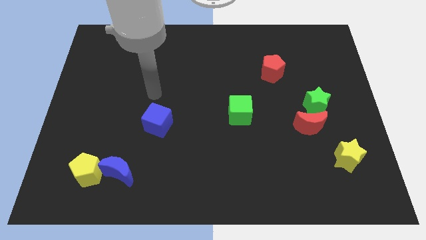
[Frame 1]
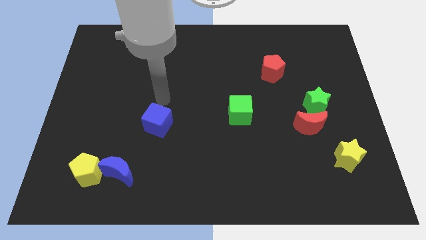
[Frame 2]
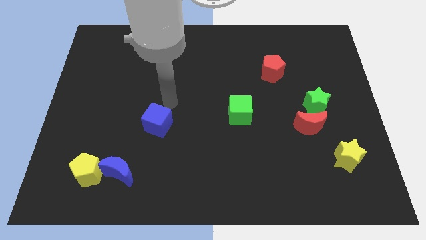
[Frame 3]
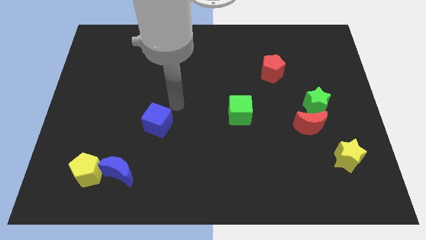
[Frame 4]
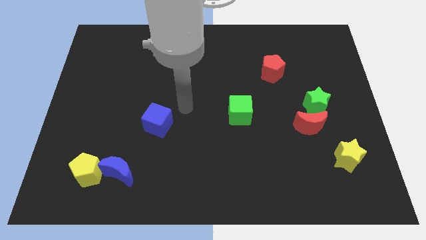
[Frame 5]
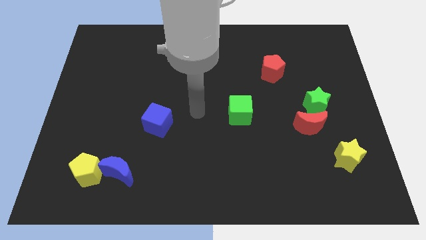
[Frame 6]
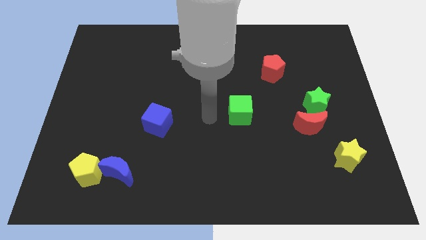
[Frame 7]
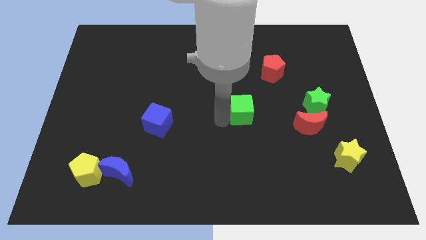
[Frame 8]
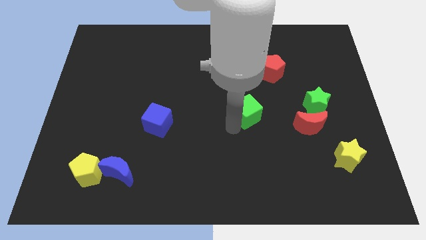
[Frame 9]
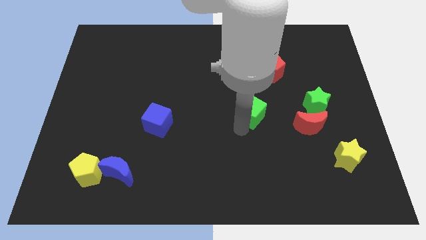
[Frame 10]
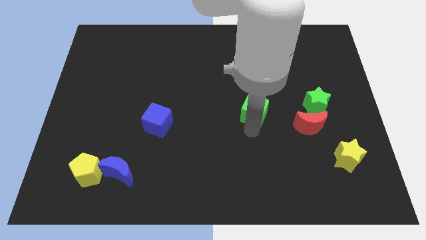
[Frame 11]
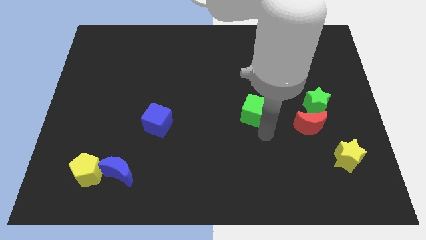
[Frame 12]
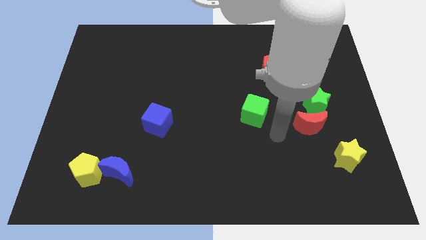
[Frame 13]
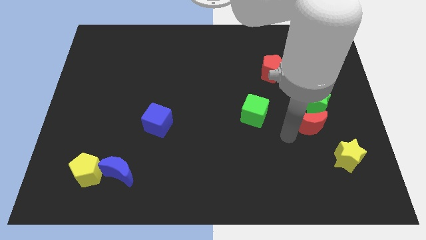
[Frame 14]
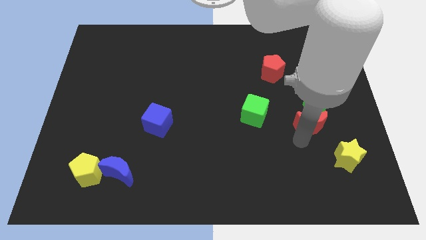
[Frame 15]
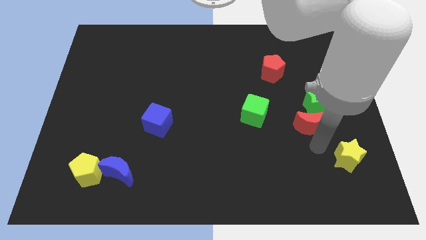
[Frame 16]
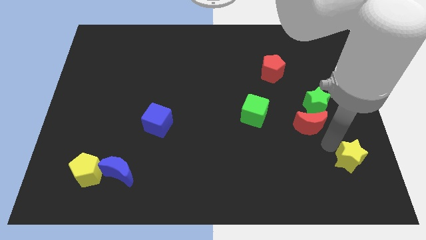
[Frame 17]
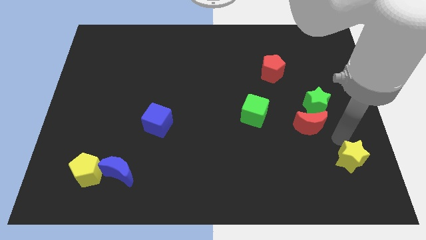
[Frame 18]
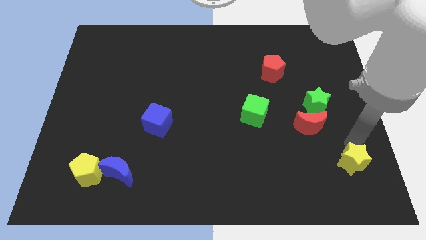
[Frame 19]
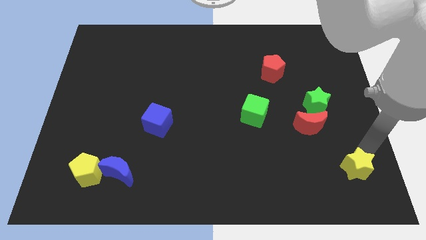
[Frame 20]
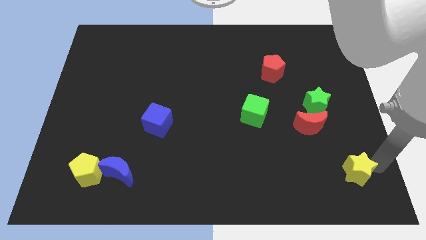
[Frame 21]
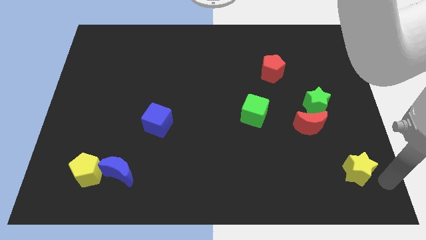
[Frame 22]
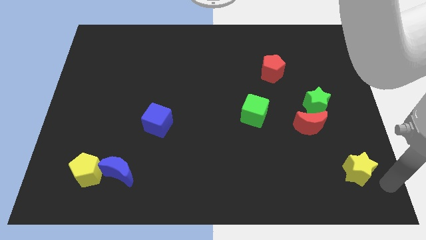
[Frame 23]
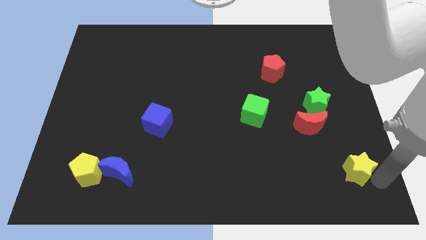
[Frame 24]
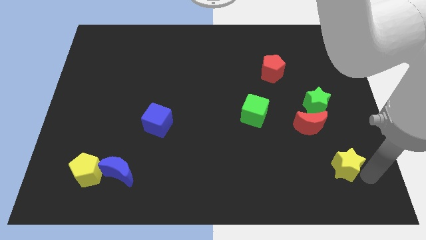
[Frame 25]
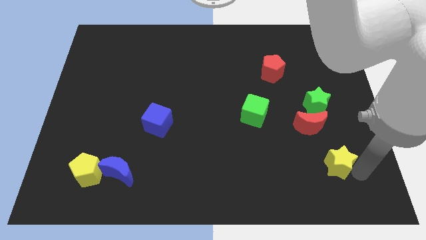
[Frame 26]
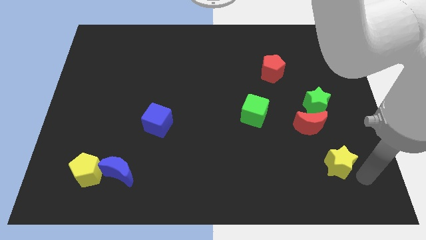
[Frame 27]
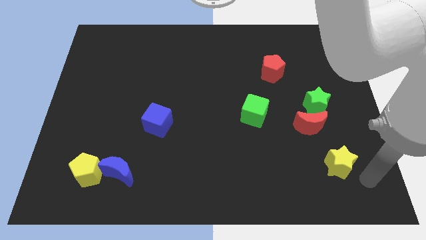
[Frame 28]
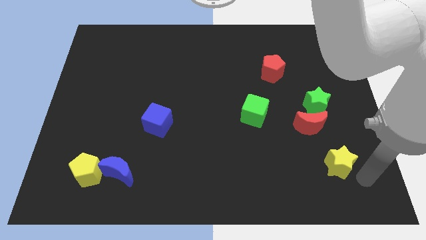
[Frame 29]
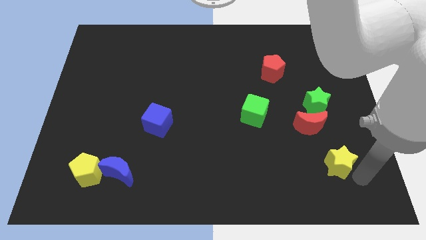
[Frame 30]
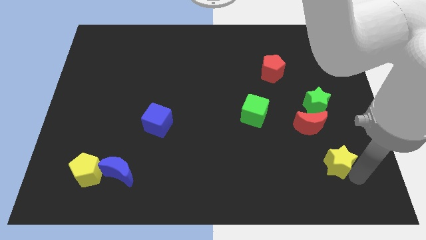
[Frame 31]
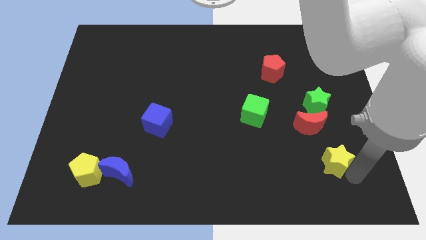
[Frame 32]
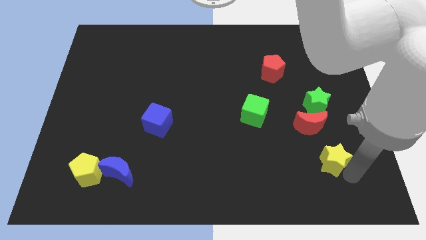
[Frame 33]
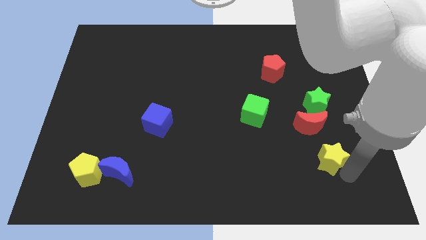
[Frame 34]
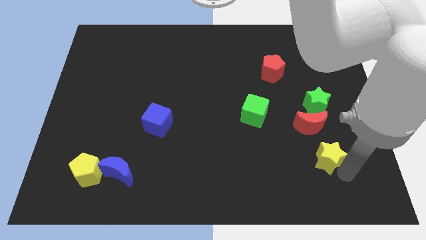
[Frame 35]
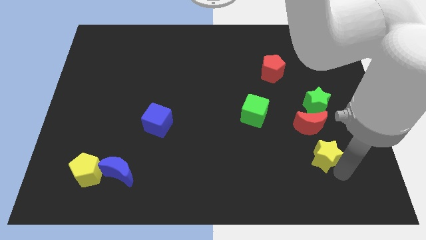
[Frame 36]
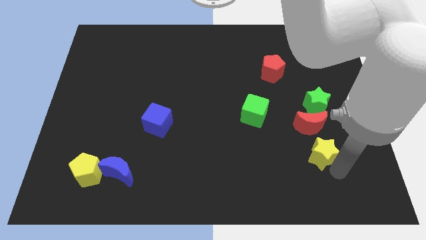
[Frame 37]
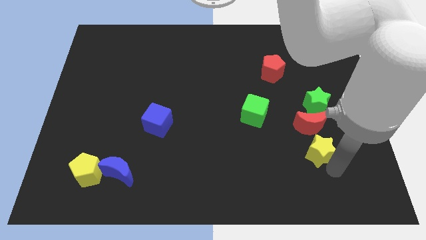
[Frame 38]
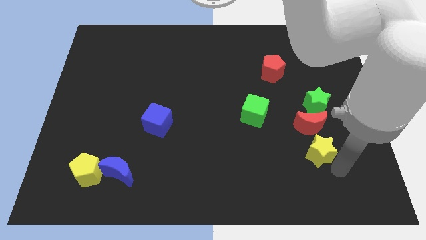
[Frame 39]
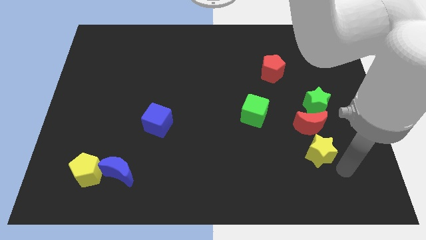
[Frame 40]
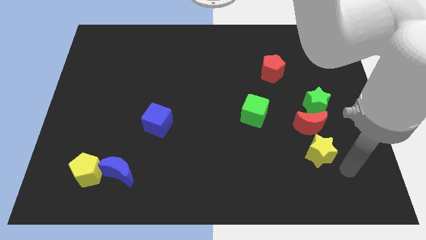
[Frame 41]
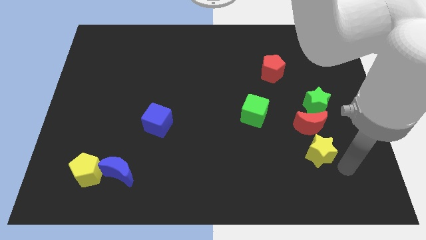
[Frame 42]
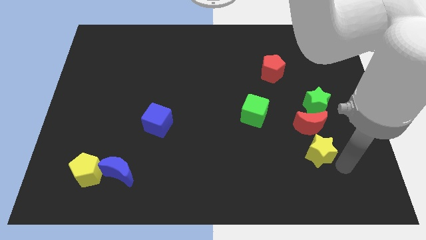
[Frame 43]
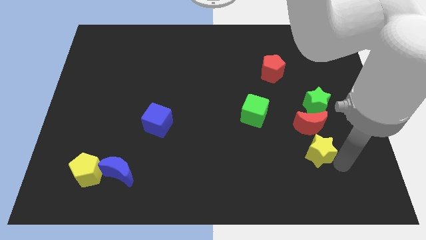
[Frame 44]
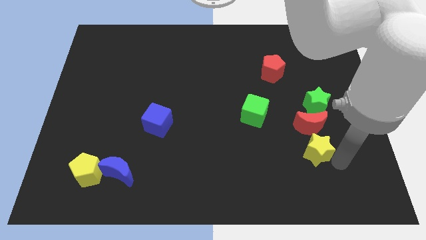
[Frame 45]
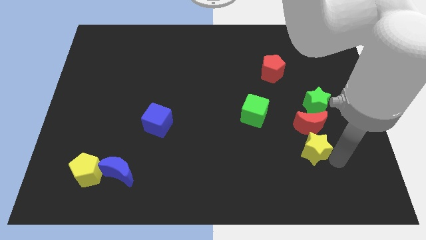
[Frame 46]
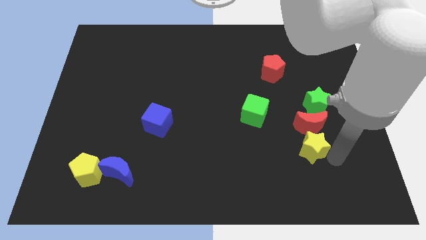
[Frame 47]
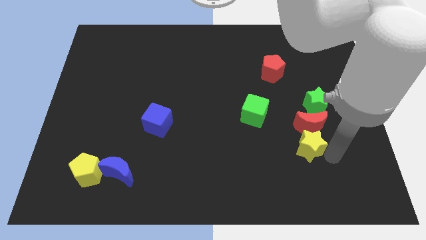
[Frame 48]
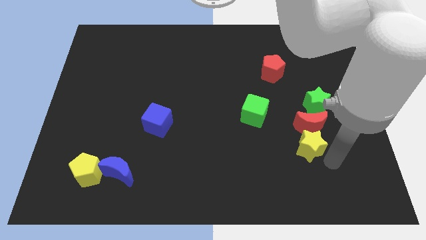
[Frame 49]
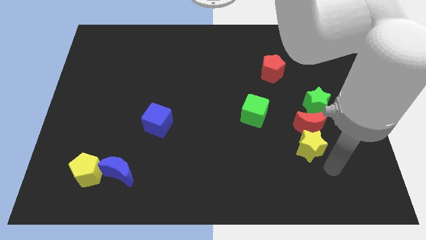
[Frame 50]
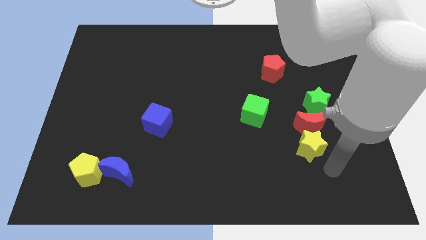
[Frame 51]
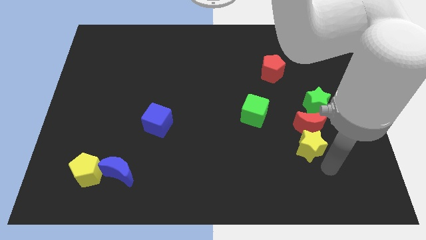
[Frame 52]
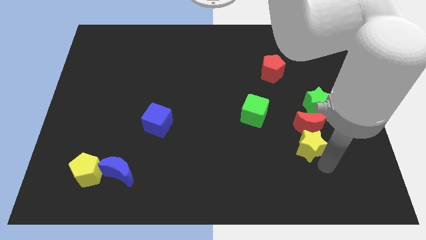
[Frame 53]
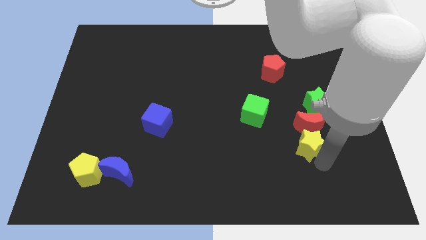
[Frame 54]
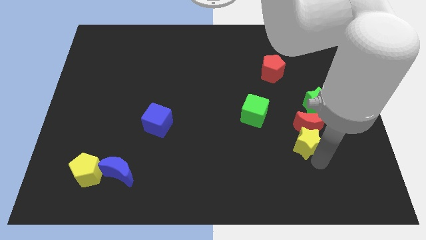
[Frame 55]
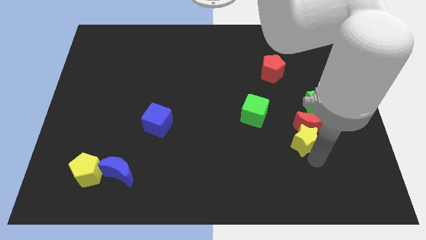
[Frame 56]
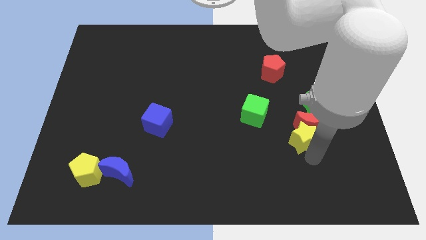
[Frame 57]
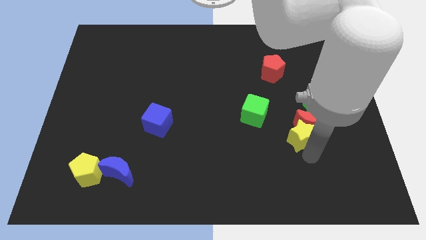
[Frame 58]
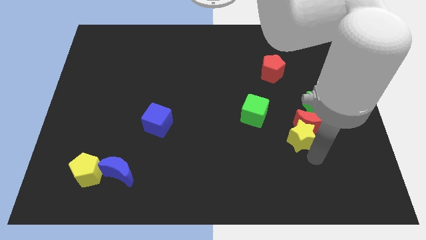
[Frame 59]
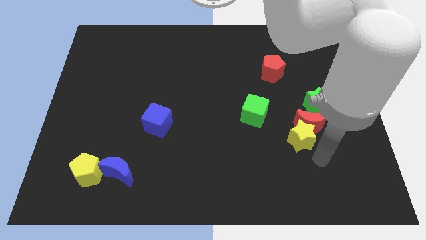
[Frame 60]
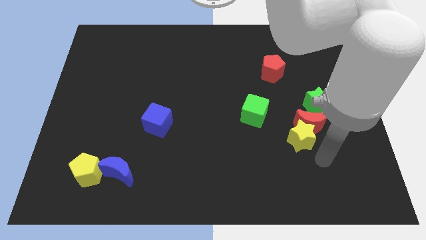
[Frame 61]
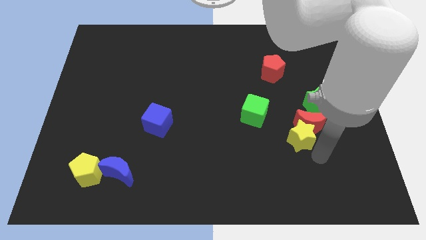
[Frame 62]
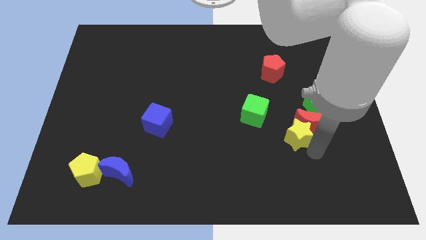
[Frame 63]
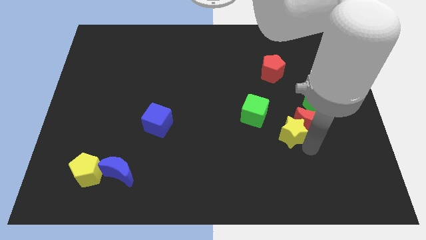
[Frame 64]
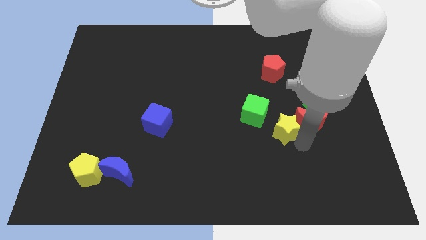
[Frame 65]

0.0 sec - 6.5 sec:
put the yellow star to the right of the green cube
